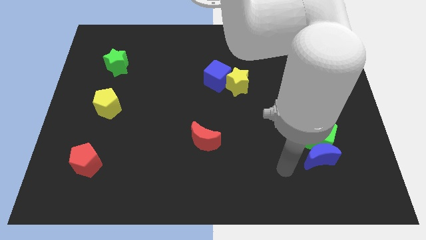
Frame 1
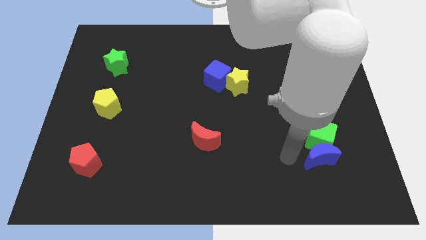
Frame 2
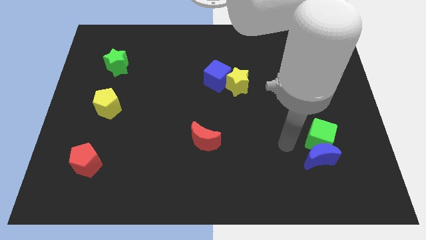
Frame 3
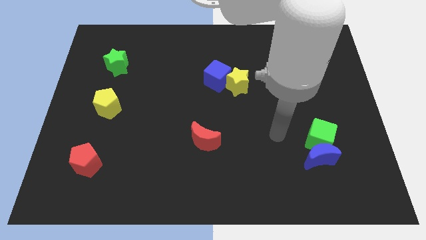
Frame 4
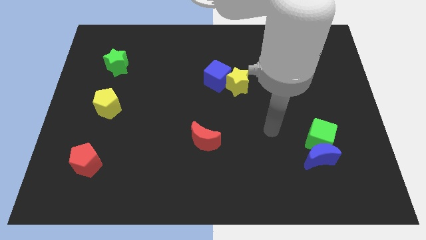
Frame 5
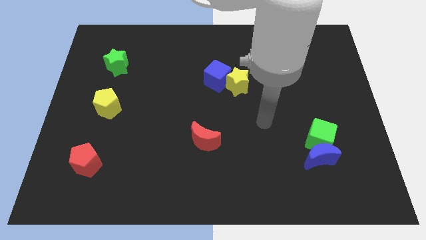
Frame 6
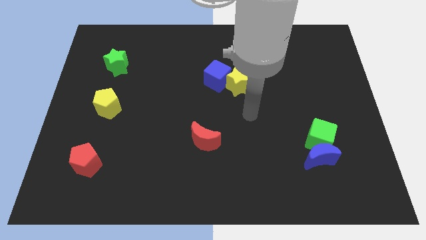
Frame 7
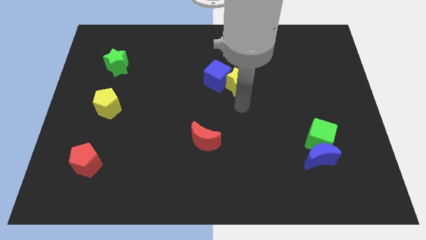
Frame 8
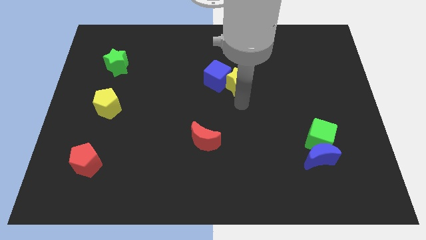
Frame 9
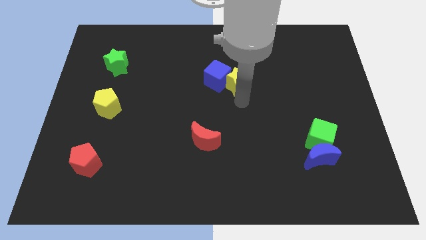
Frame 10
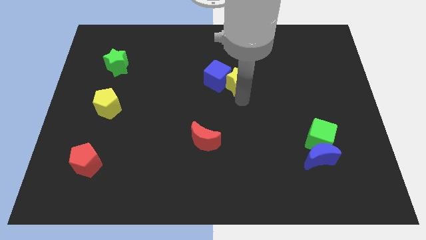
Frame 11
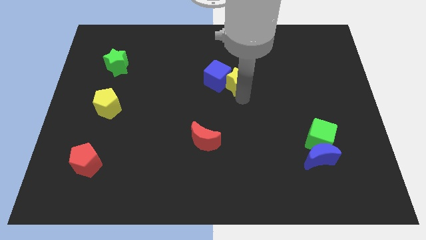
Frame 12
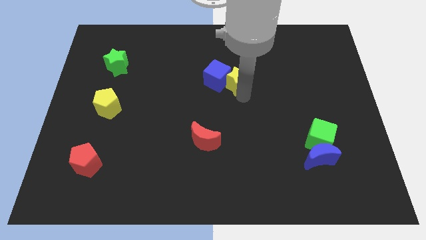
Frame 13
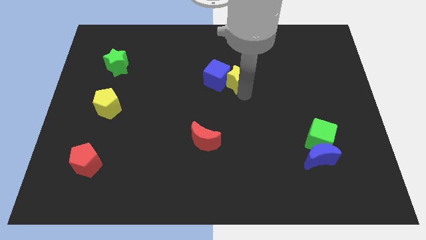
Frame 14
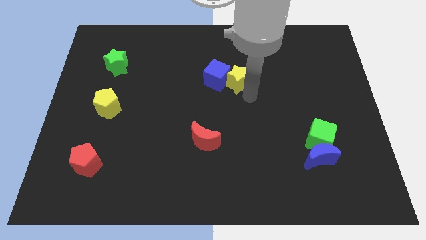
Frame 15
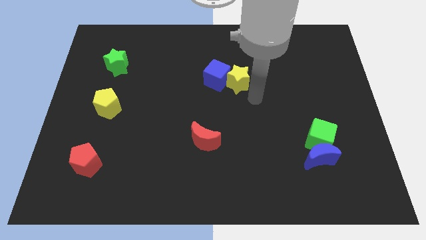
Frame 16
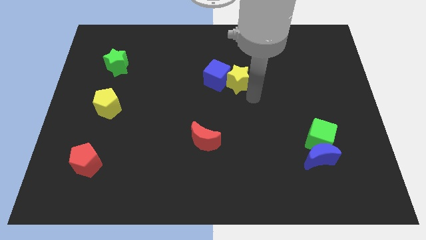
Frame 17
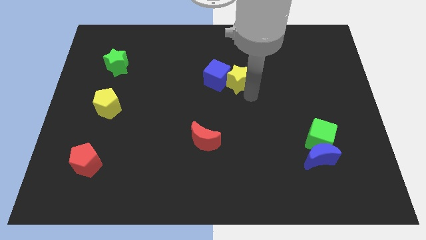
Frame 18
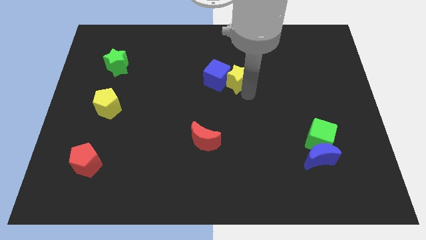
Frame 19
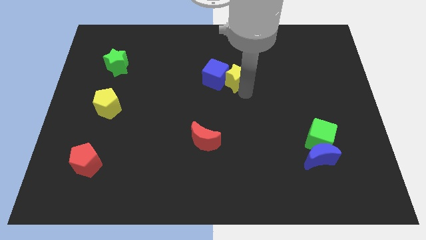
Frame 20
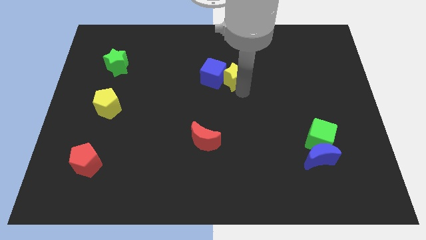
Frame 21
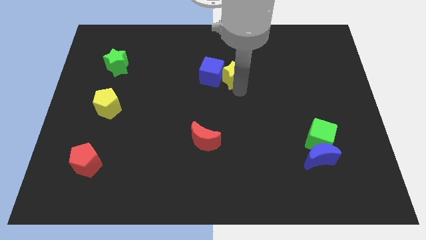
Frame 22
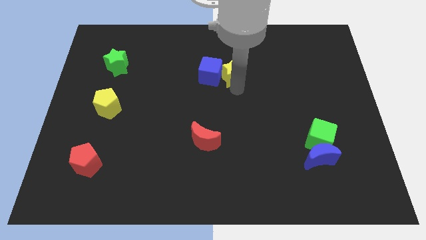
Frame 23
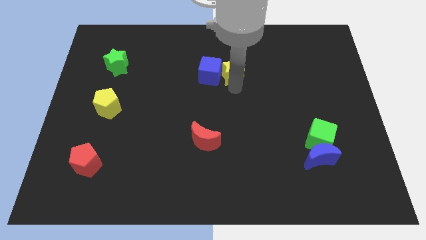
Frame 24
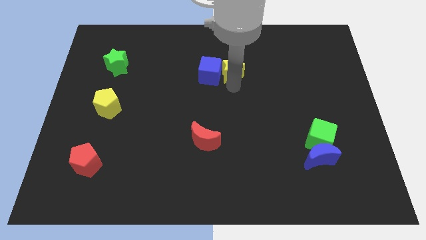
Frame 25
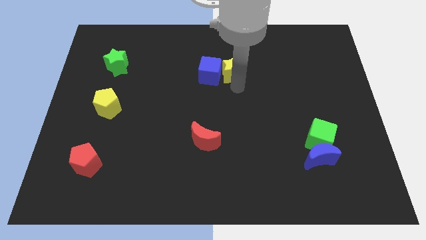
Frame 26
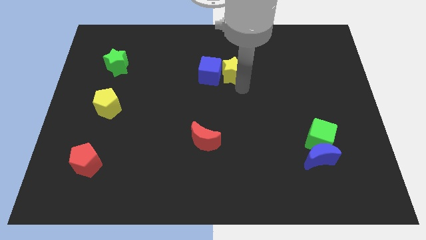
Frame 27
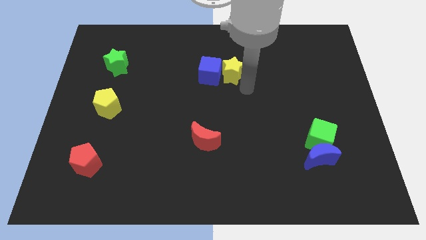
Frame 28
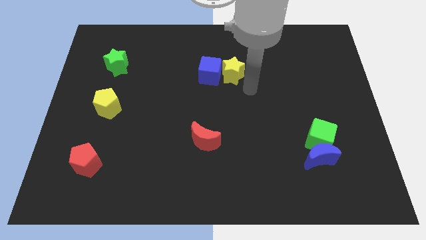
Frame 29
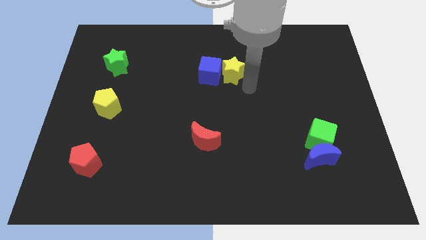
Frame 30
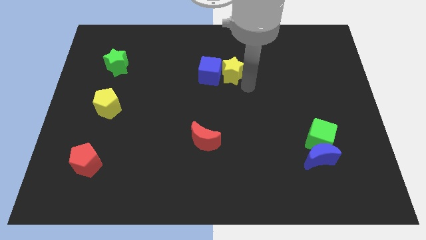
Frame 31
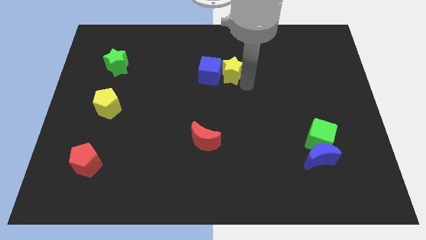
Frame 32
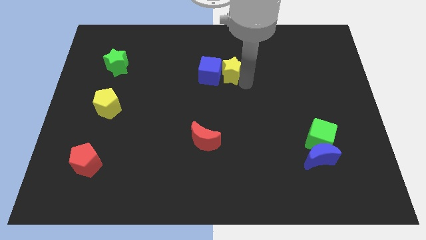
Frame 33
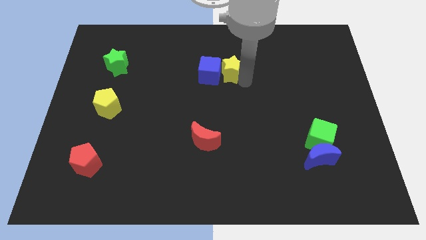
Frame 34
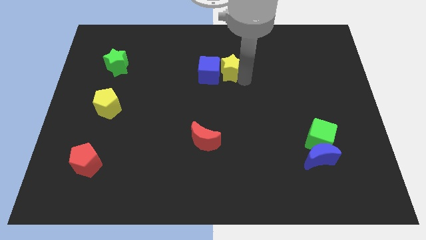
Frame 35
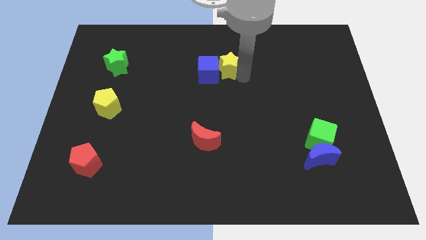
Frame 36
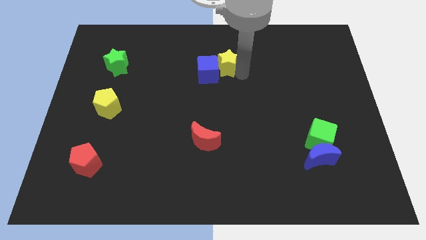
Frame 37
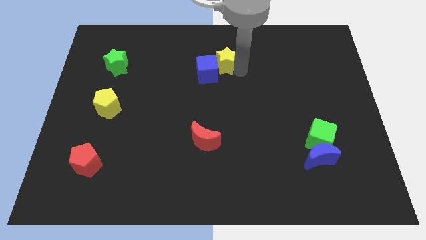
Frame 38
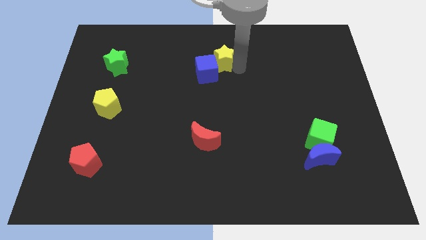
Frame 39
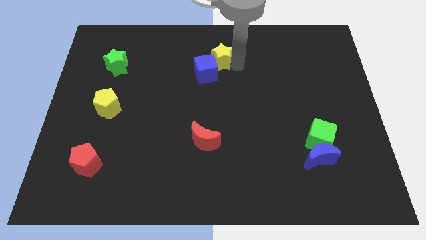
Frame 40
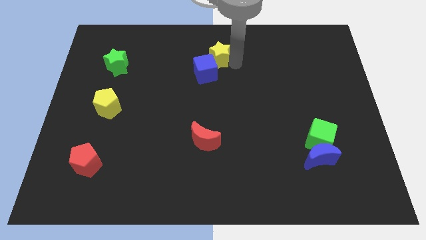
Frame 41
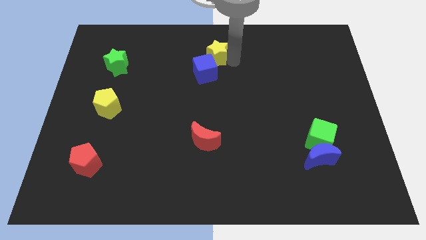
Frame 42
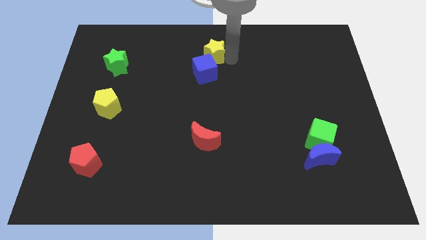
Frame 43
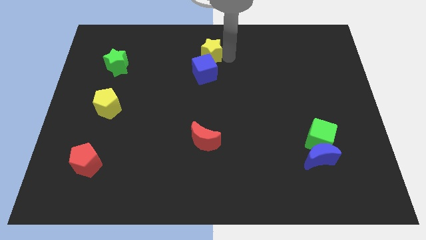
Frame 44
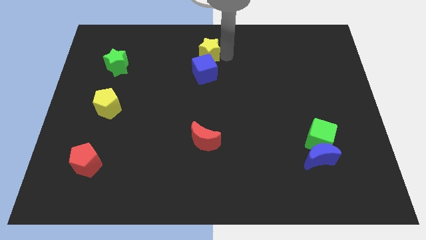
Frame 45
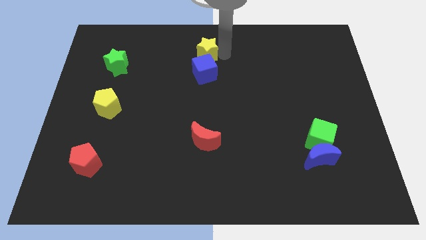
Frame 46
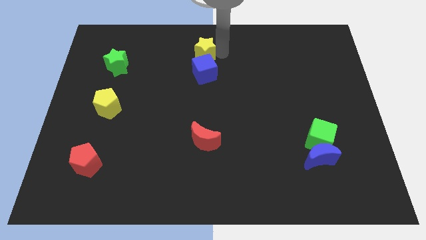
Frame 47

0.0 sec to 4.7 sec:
move the yellow star diagonally up and to the left of the blue cube

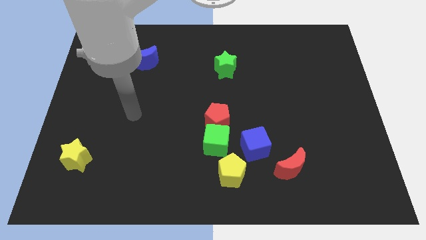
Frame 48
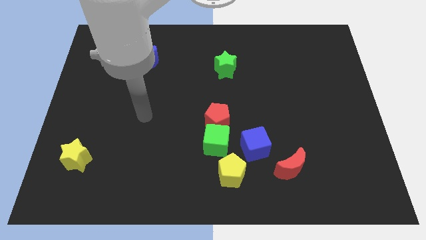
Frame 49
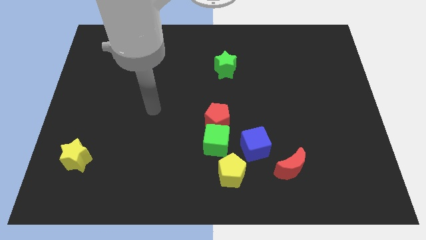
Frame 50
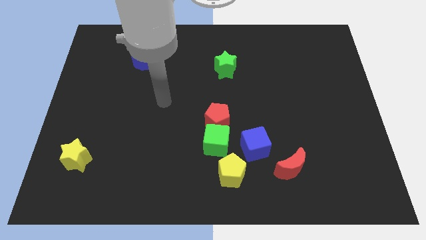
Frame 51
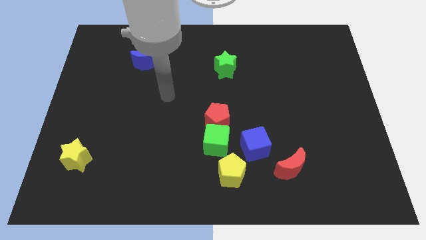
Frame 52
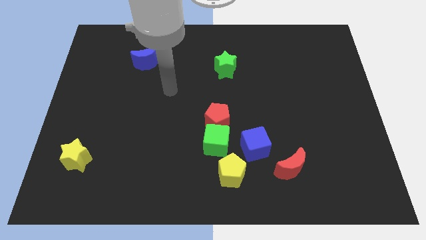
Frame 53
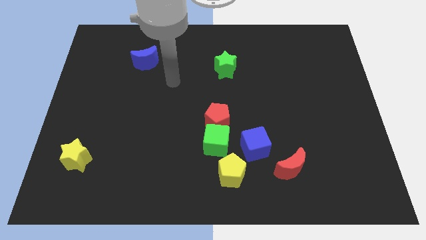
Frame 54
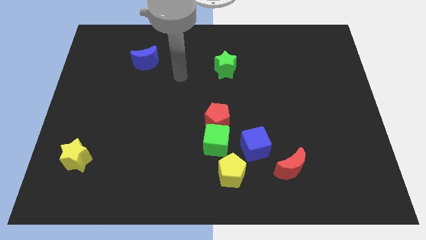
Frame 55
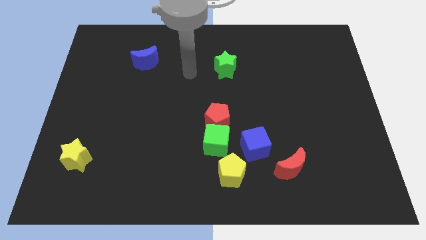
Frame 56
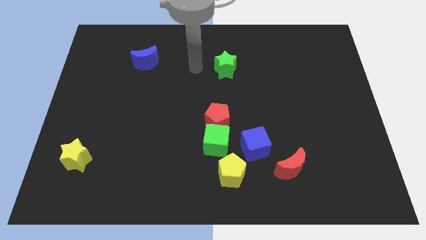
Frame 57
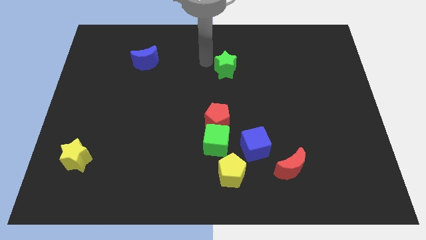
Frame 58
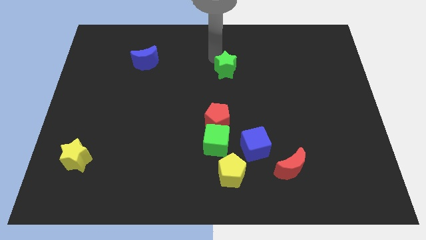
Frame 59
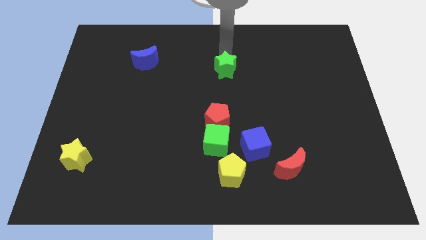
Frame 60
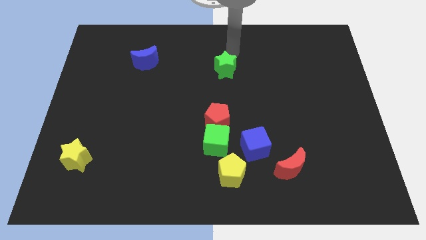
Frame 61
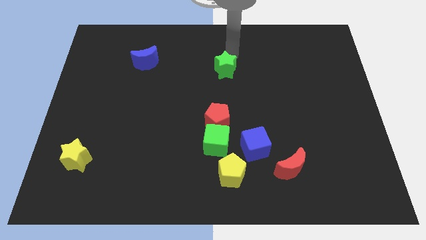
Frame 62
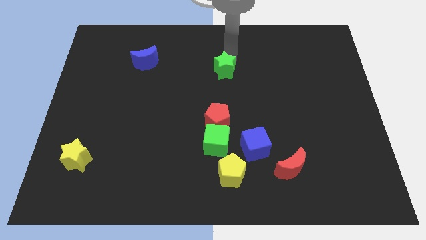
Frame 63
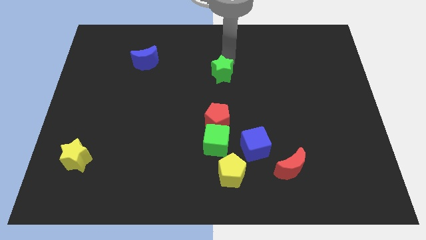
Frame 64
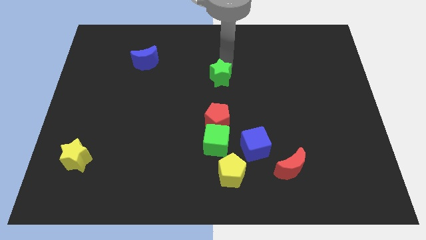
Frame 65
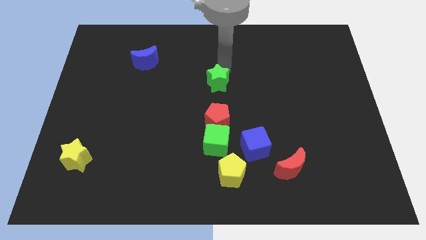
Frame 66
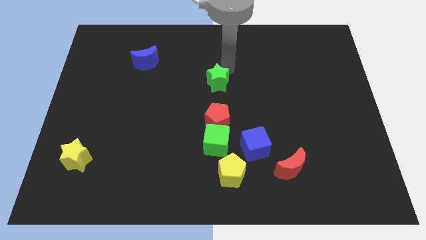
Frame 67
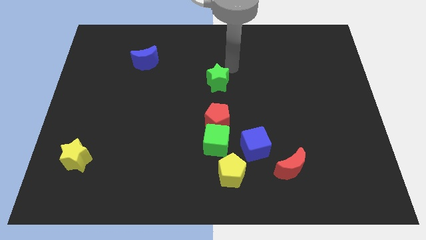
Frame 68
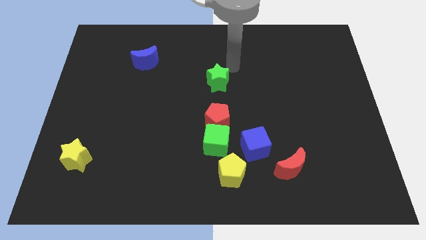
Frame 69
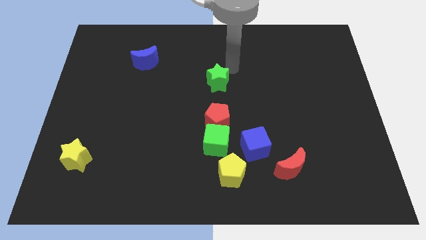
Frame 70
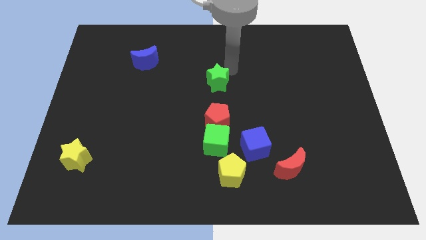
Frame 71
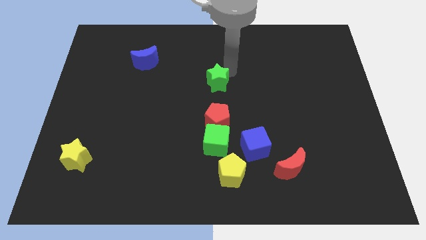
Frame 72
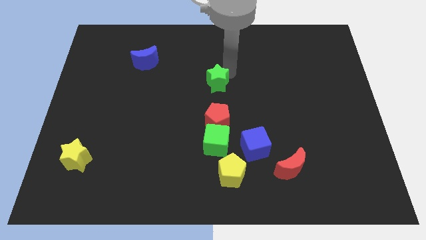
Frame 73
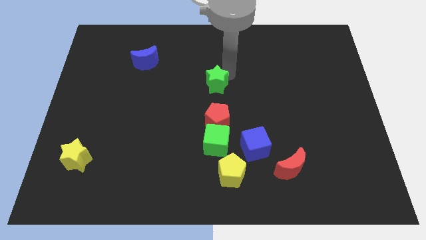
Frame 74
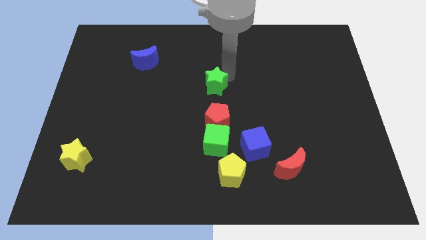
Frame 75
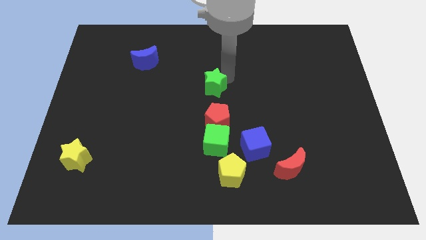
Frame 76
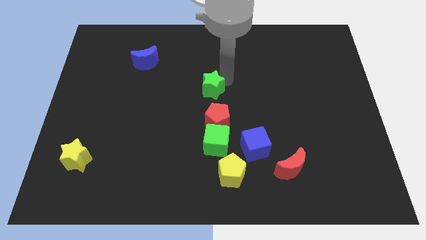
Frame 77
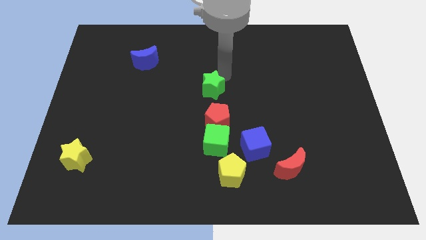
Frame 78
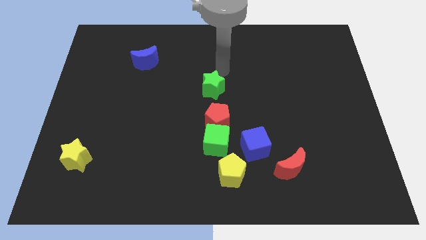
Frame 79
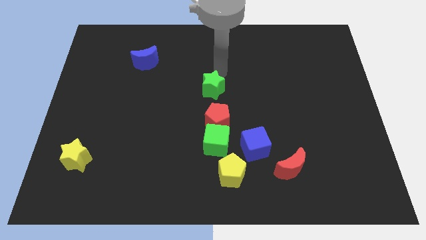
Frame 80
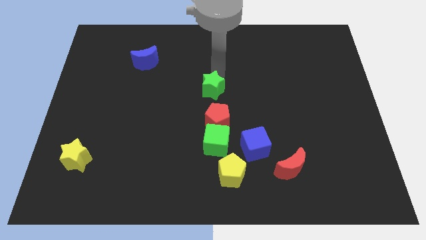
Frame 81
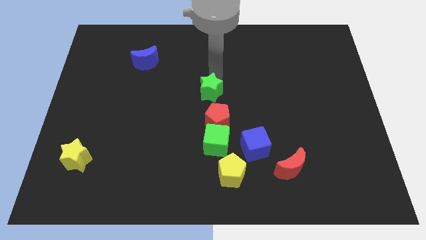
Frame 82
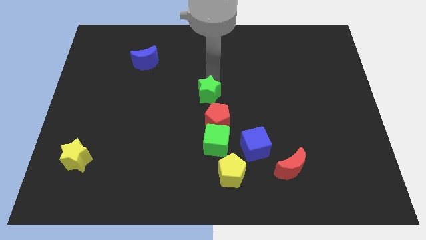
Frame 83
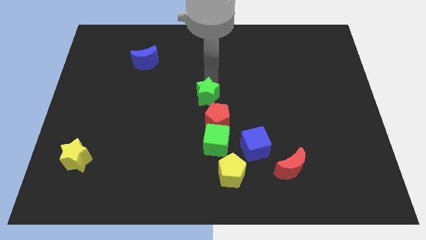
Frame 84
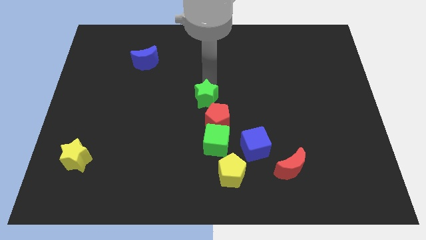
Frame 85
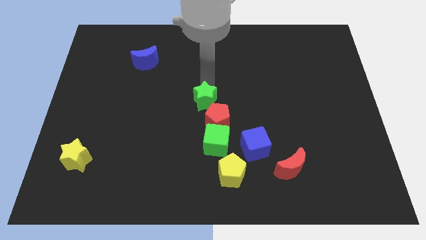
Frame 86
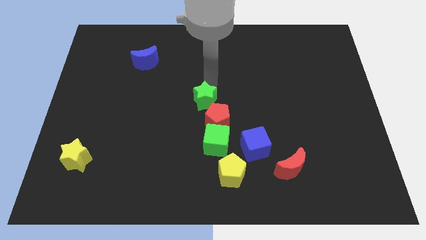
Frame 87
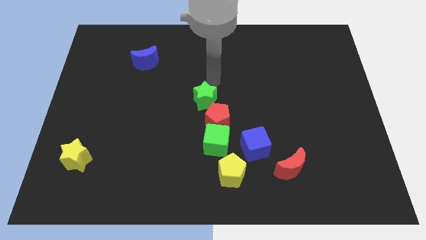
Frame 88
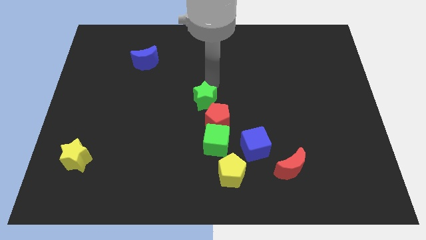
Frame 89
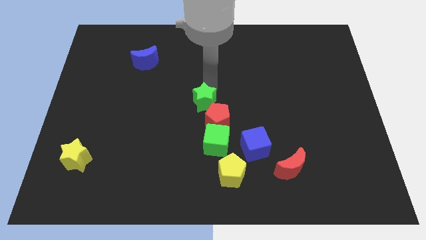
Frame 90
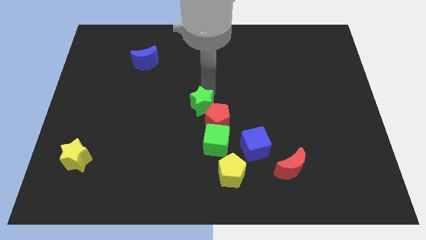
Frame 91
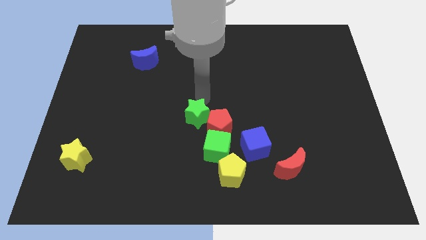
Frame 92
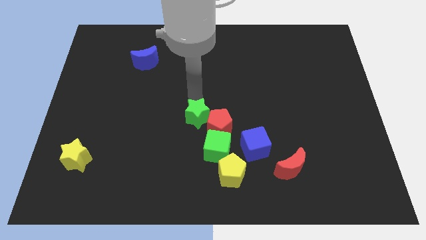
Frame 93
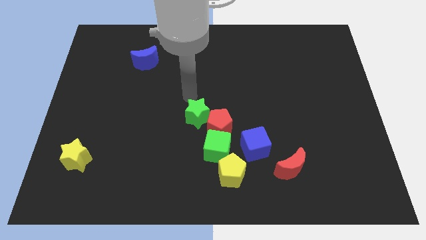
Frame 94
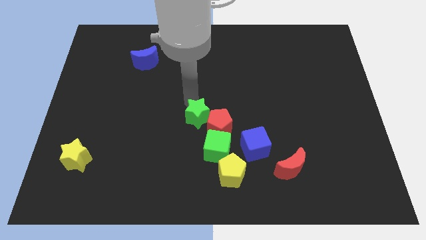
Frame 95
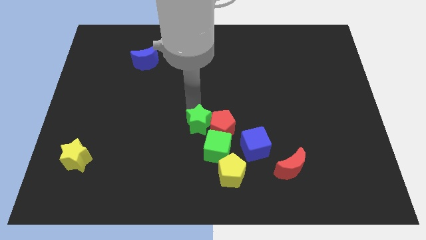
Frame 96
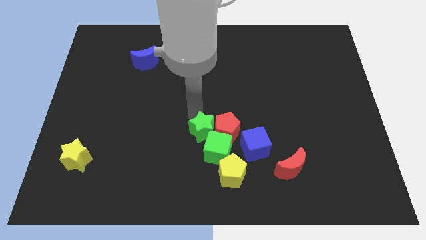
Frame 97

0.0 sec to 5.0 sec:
push the green star to the left side of the blue cube
